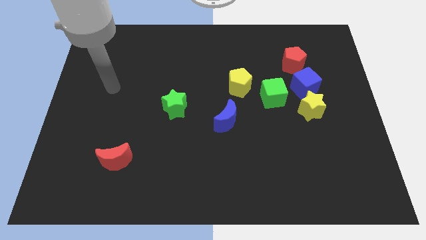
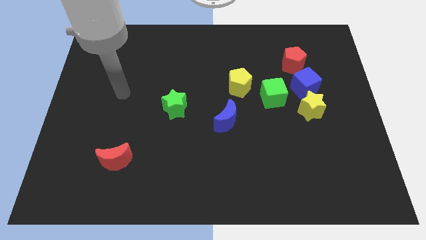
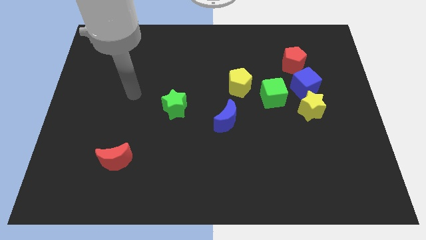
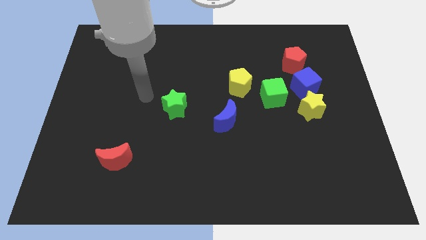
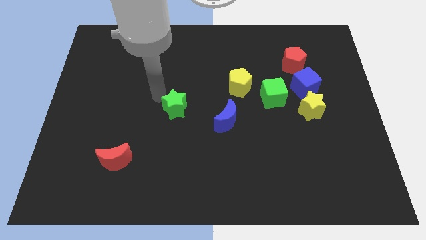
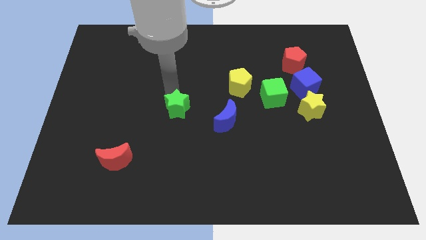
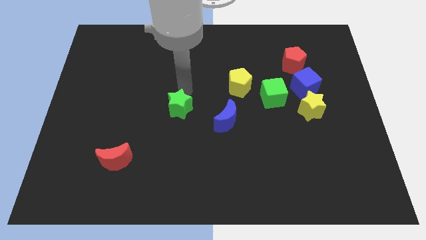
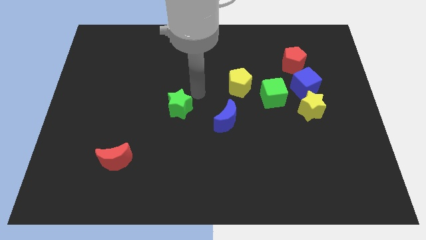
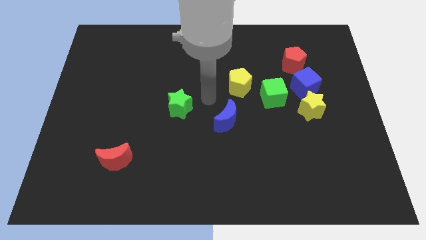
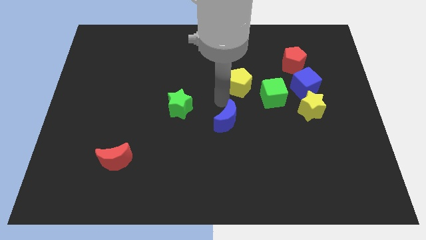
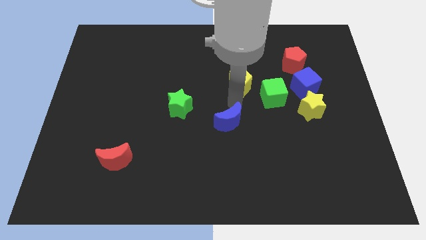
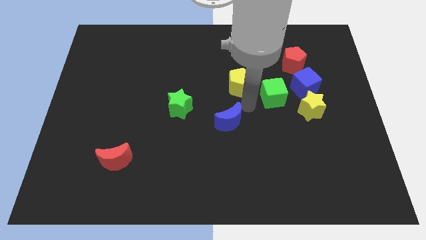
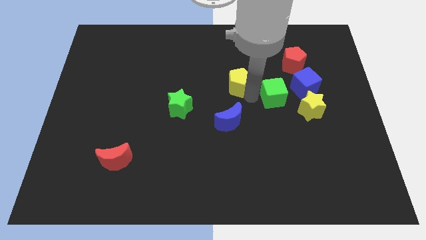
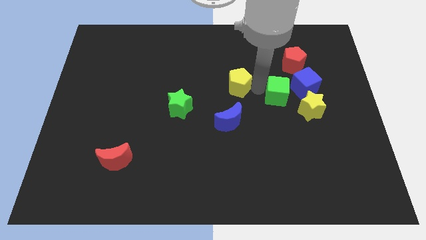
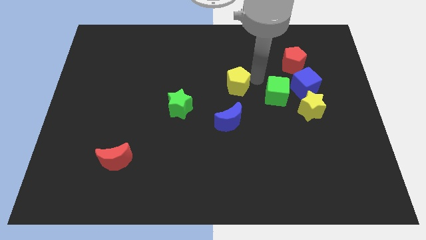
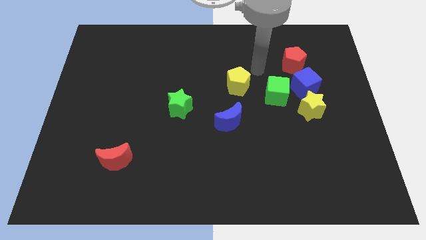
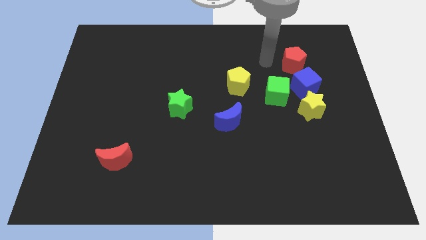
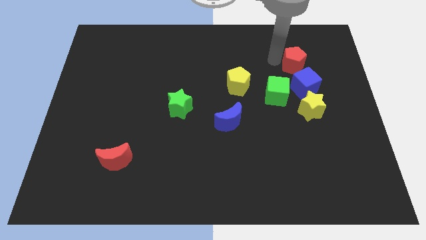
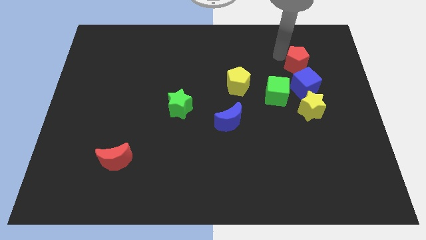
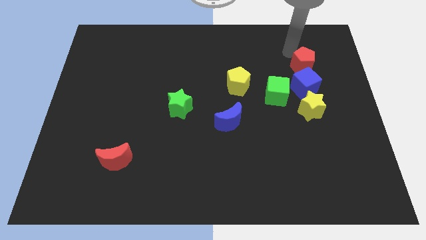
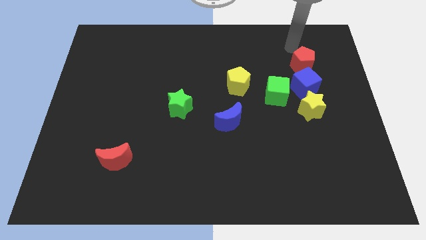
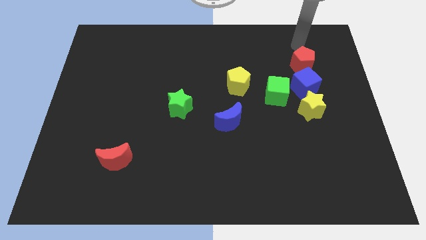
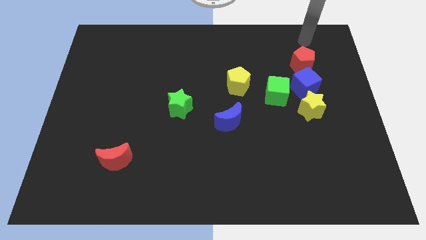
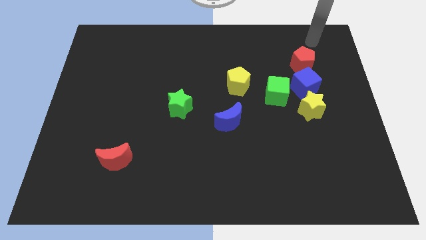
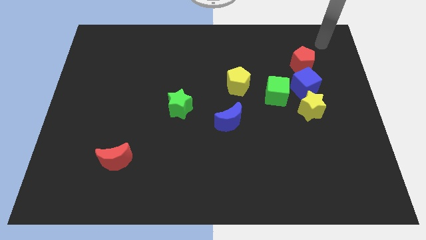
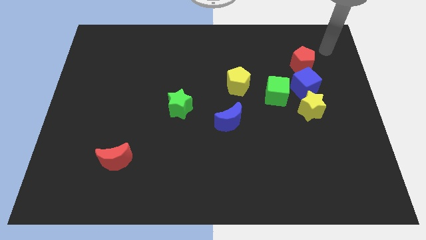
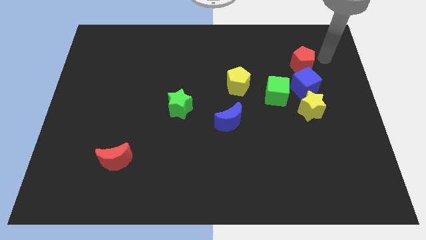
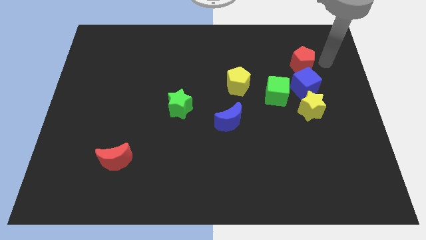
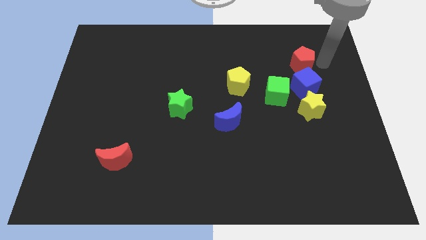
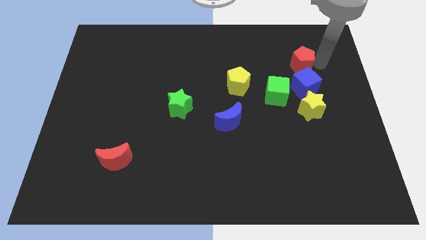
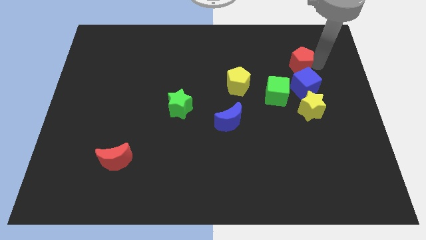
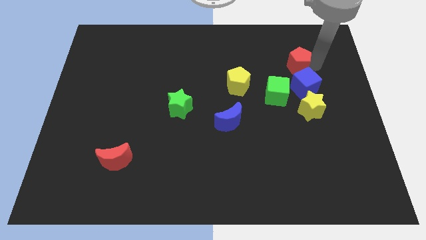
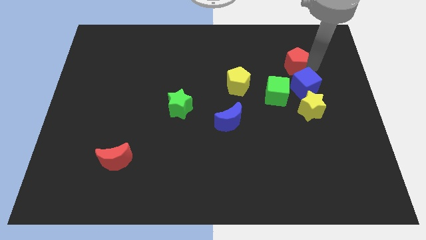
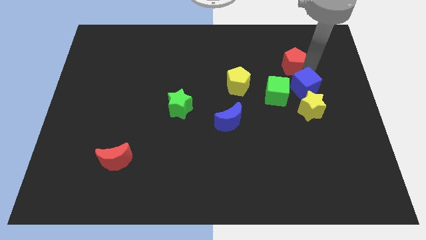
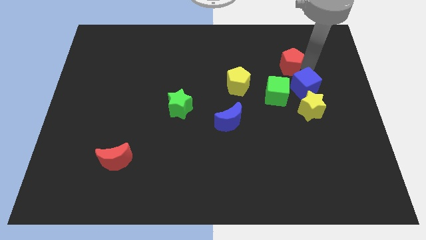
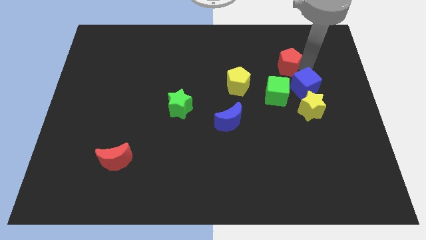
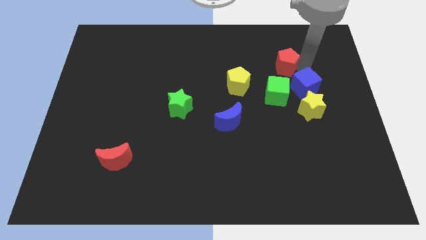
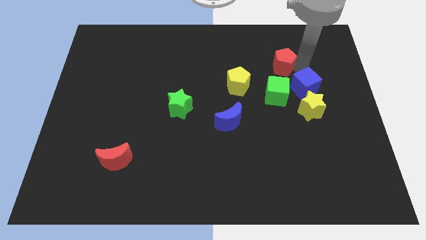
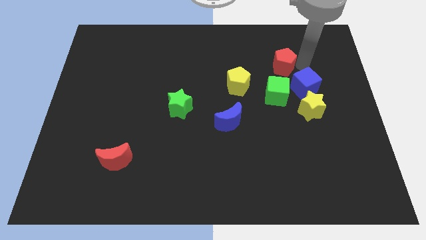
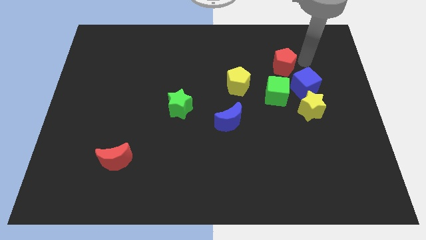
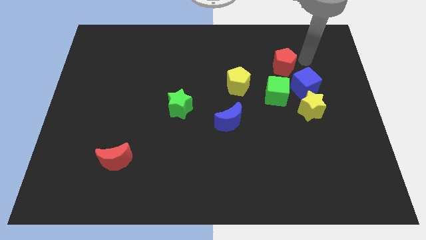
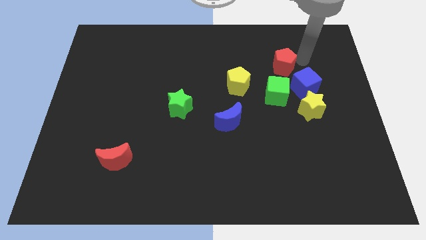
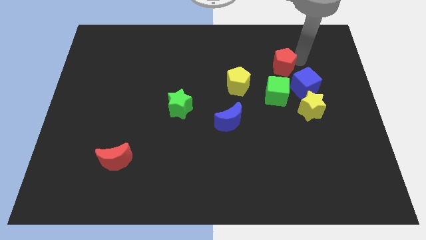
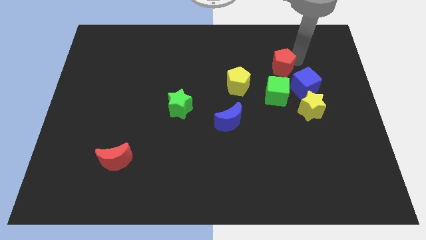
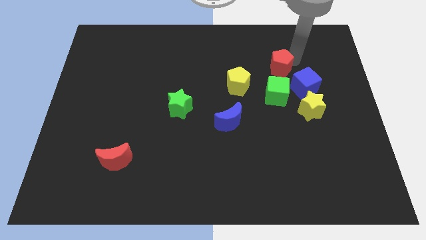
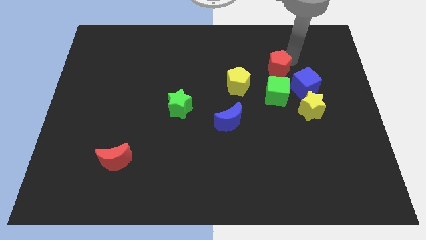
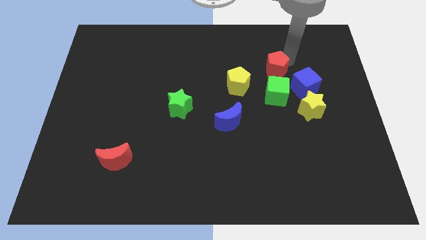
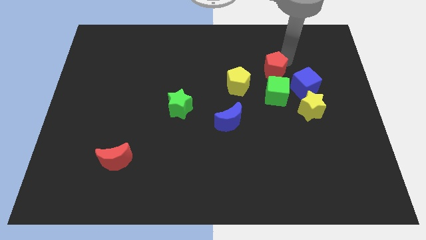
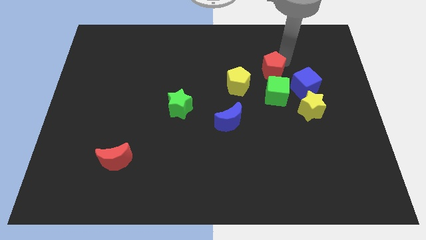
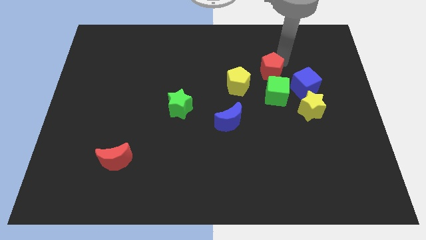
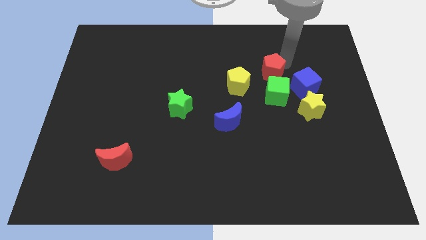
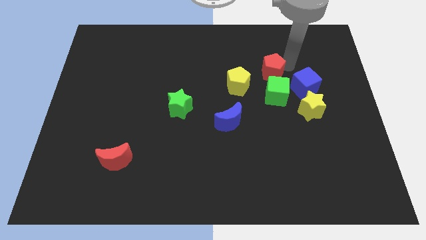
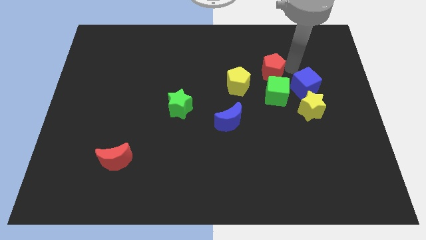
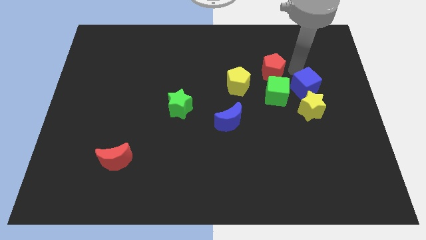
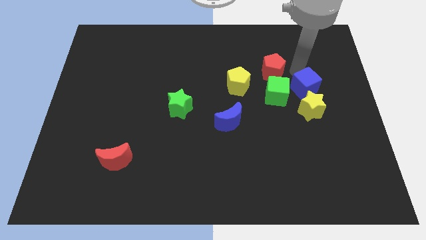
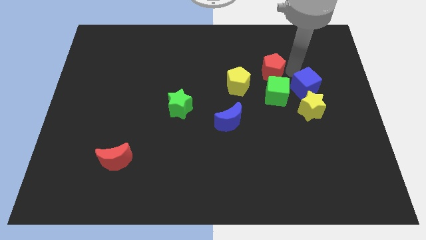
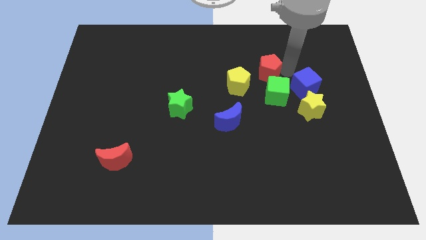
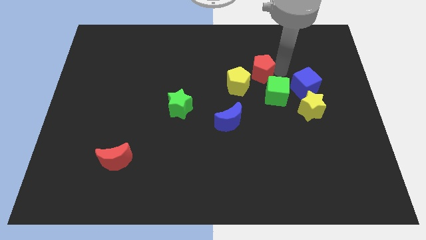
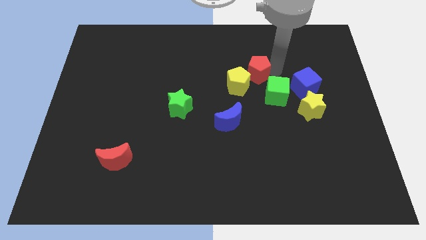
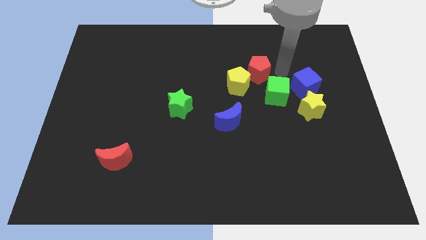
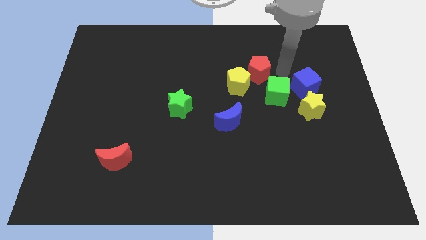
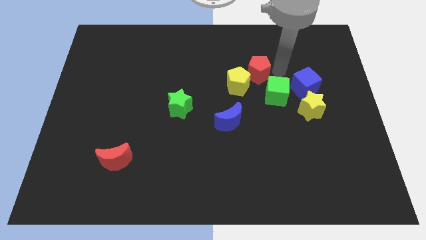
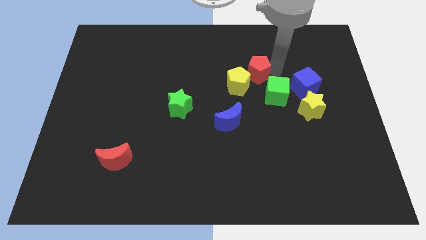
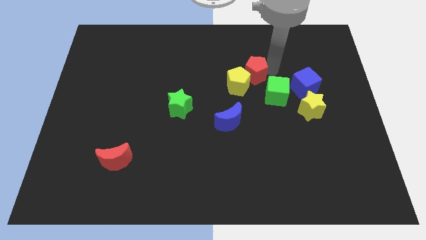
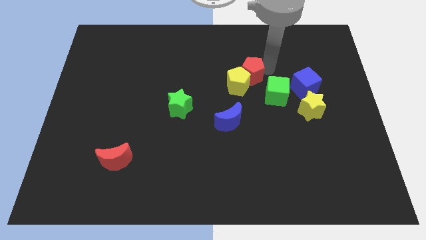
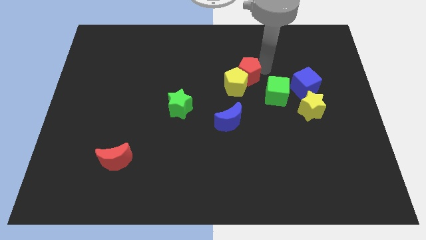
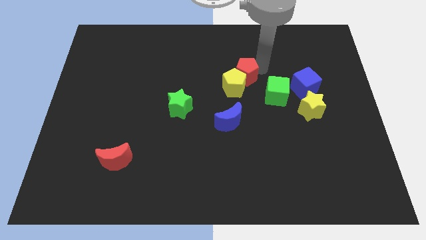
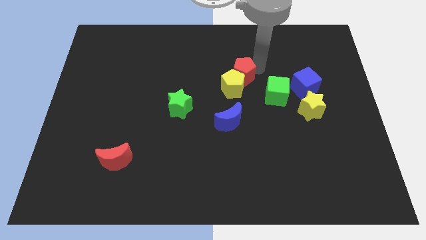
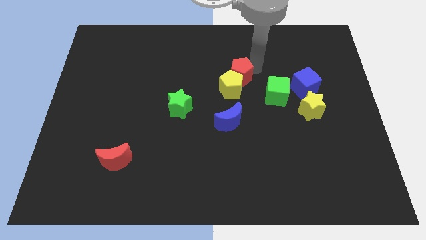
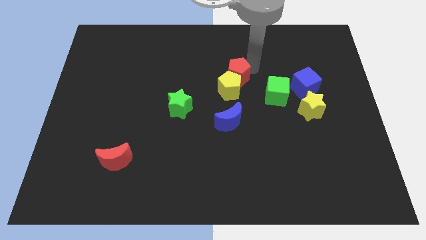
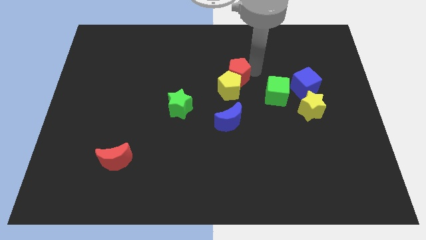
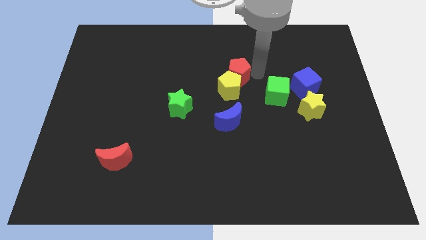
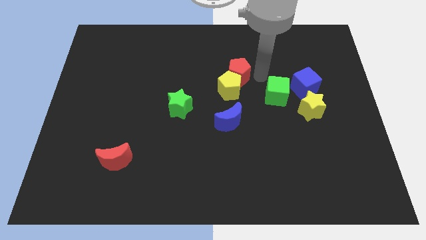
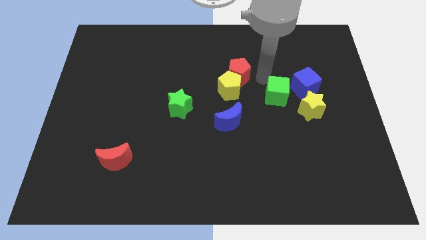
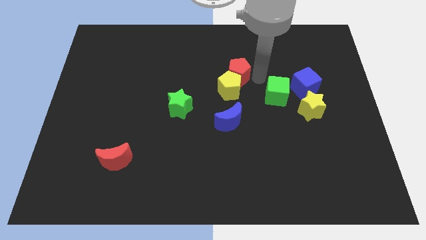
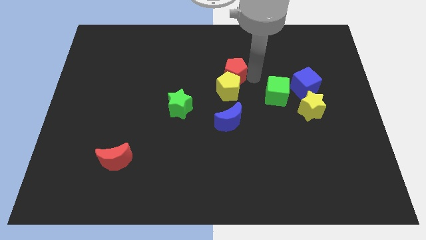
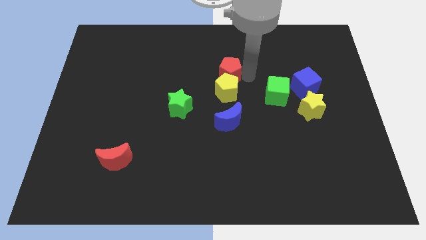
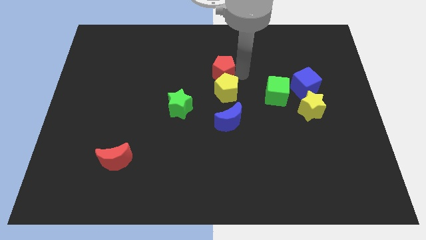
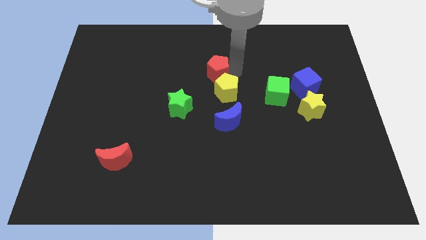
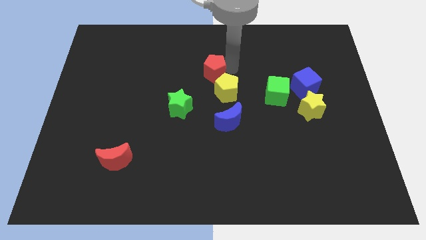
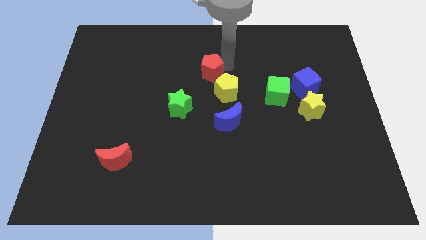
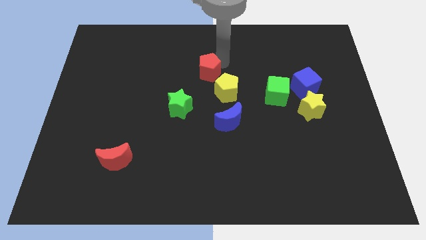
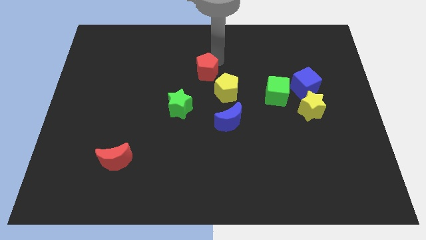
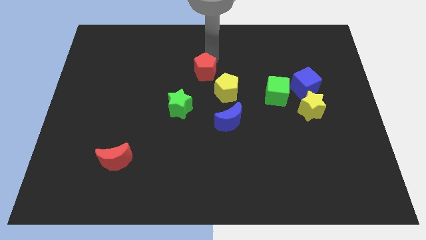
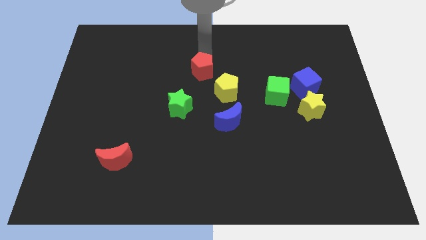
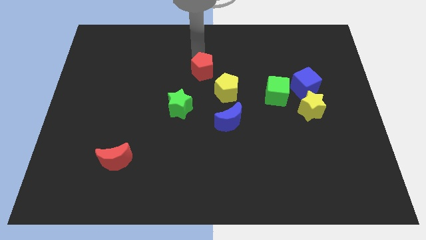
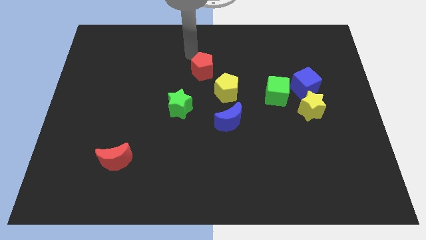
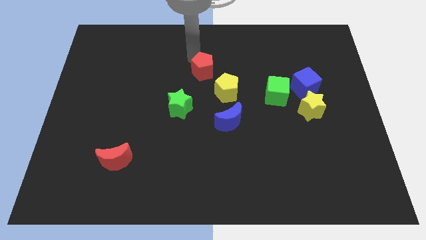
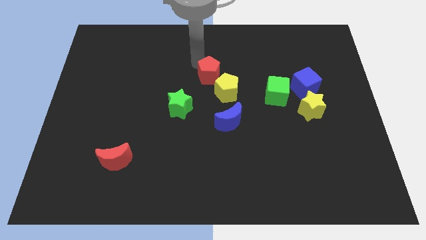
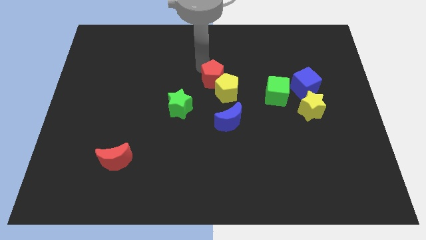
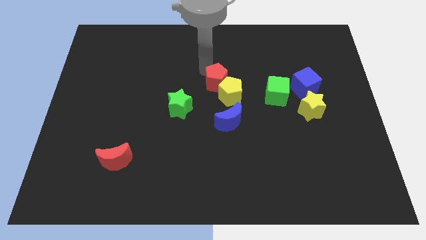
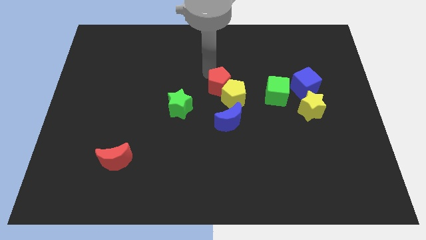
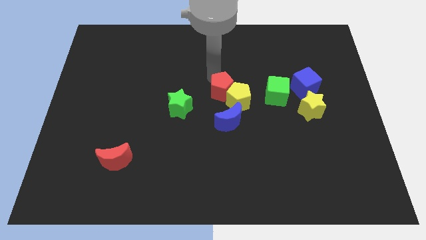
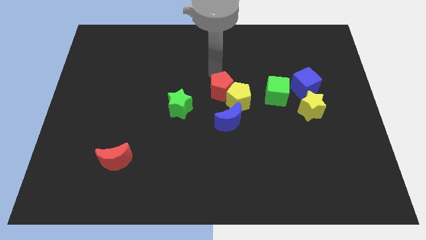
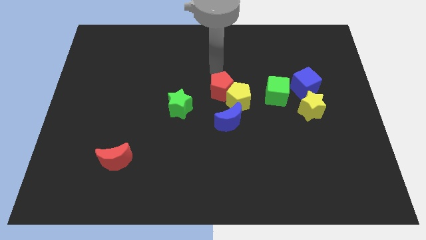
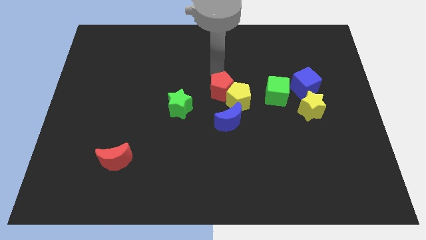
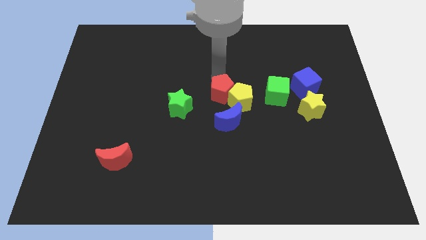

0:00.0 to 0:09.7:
slide the red pentagon to the right of the green star
